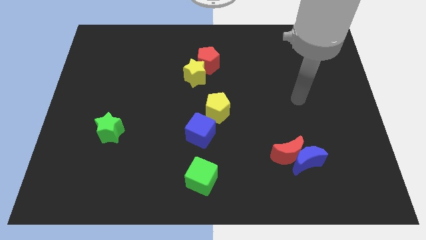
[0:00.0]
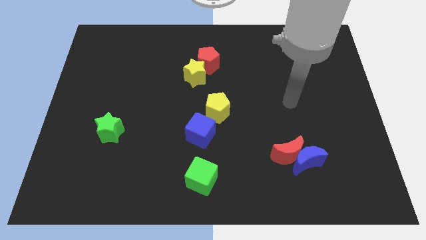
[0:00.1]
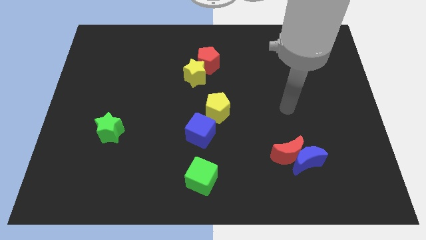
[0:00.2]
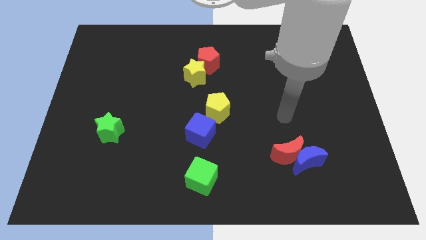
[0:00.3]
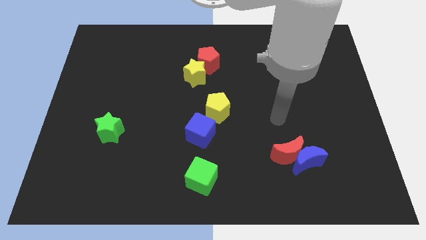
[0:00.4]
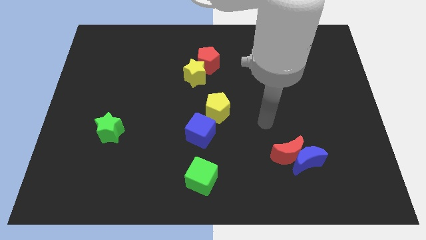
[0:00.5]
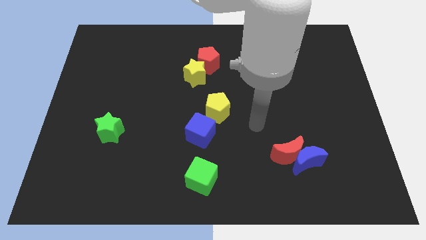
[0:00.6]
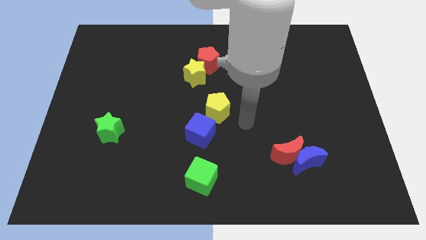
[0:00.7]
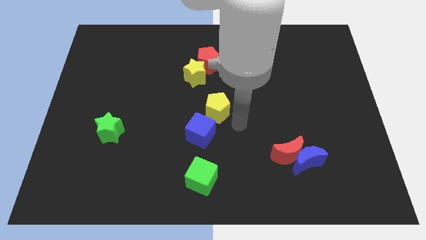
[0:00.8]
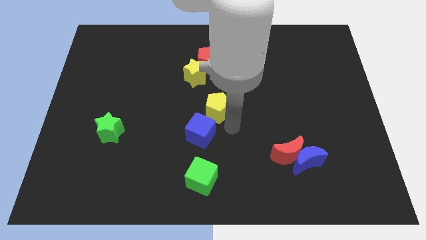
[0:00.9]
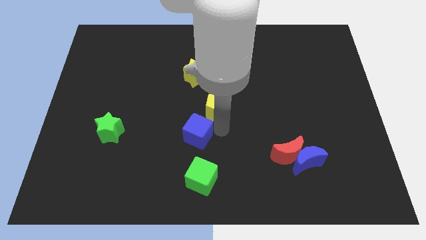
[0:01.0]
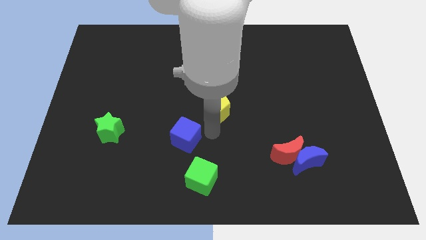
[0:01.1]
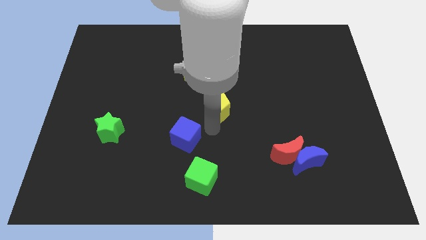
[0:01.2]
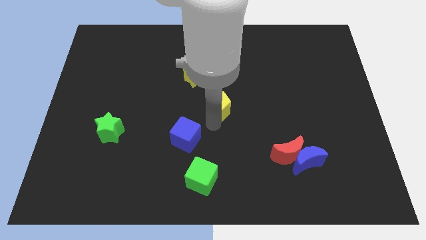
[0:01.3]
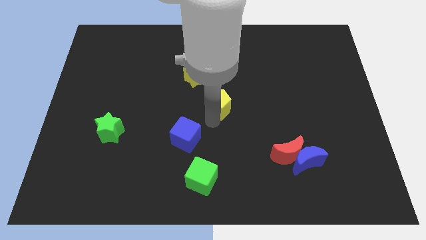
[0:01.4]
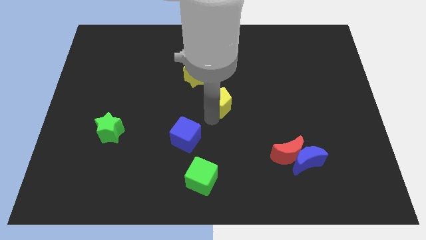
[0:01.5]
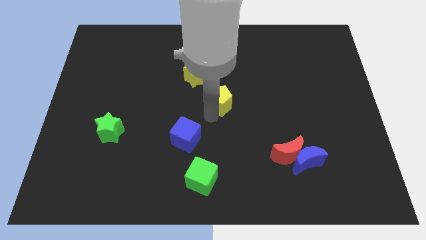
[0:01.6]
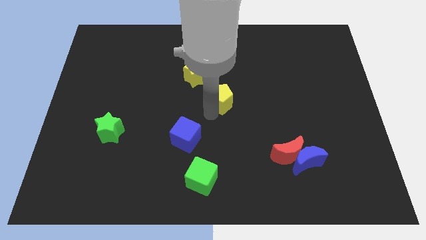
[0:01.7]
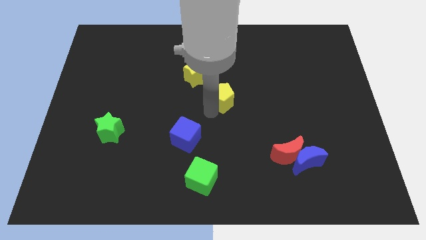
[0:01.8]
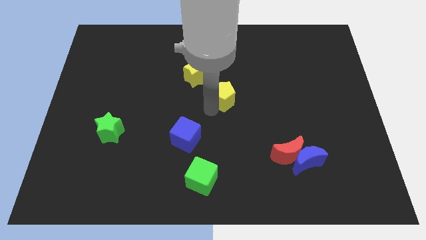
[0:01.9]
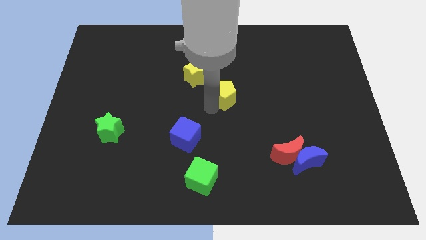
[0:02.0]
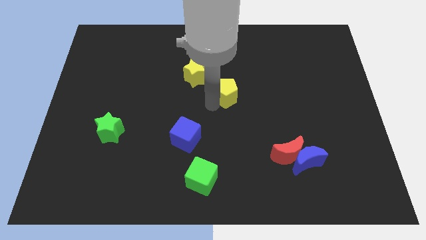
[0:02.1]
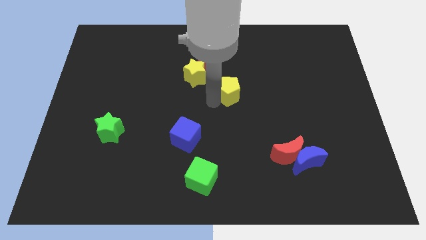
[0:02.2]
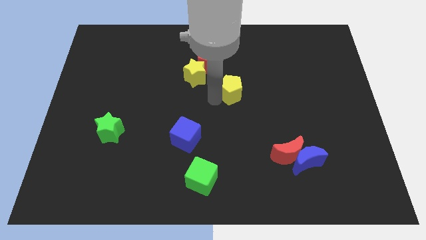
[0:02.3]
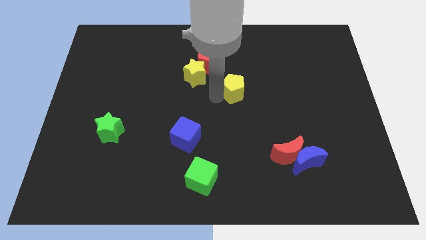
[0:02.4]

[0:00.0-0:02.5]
move the yellow pentagon somewhat upwards and then to the right

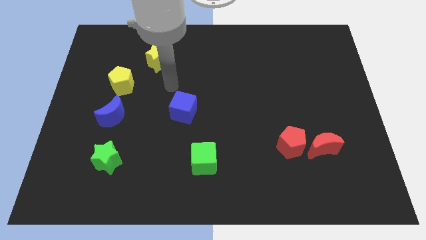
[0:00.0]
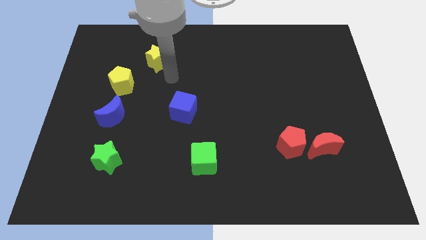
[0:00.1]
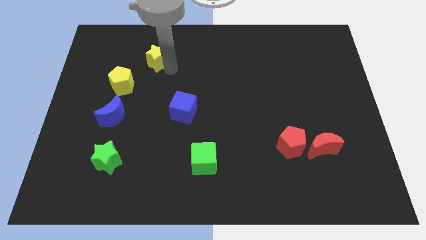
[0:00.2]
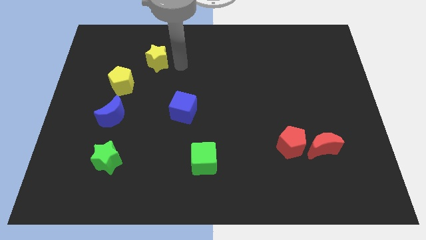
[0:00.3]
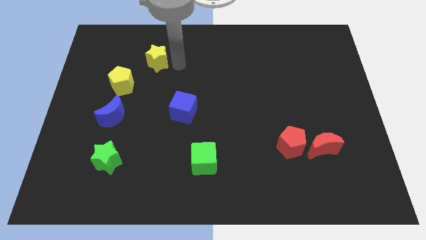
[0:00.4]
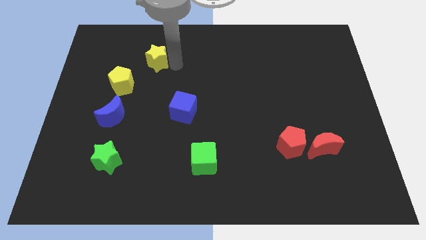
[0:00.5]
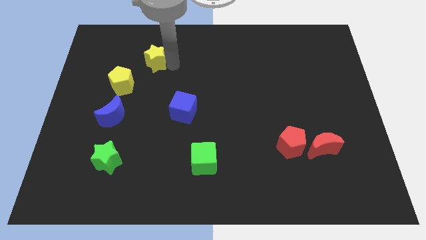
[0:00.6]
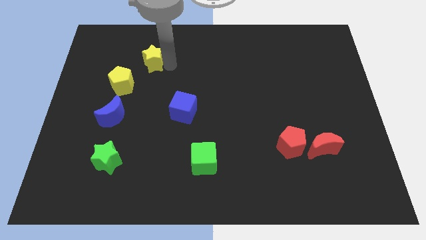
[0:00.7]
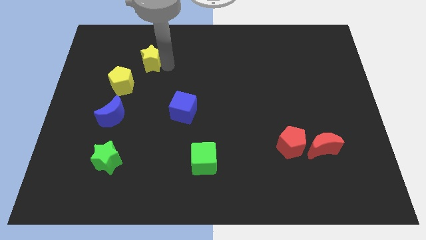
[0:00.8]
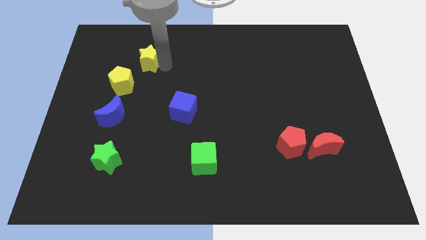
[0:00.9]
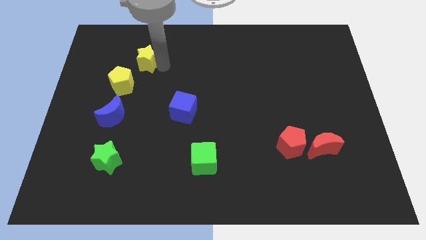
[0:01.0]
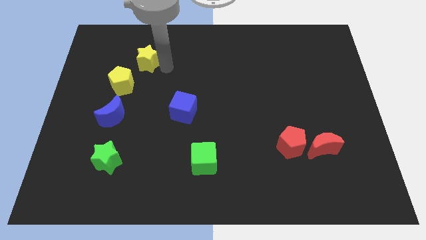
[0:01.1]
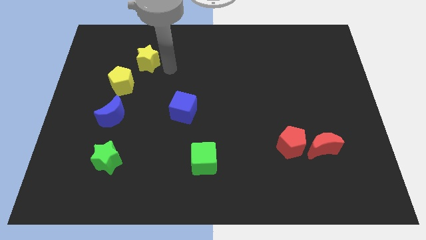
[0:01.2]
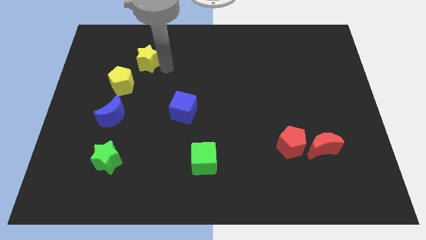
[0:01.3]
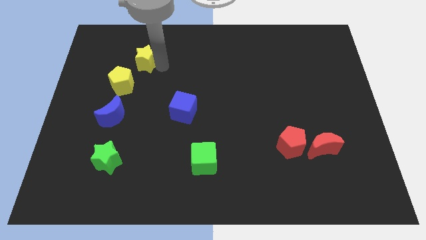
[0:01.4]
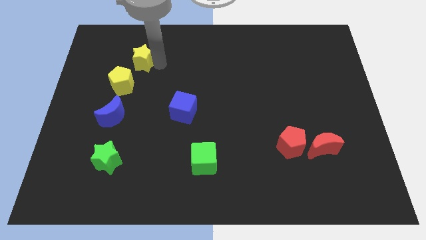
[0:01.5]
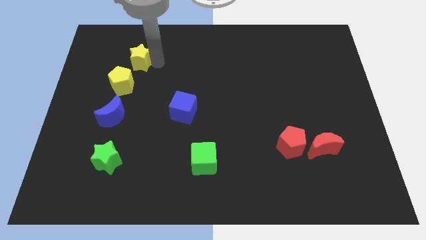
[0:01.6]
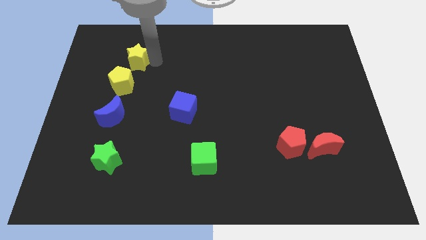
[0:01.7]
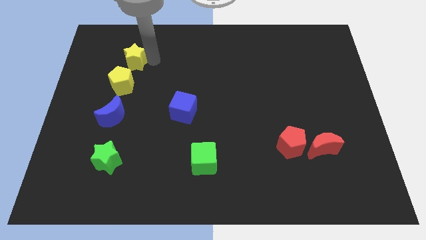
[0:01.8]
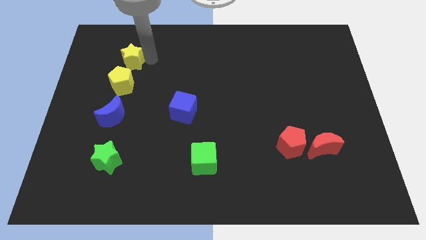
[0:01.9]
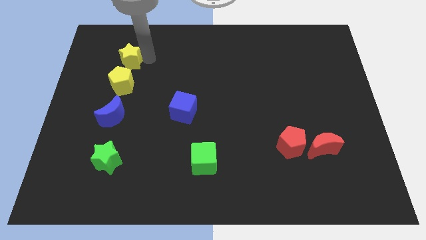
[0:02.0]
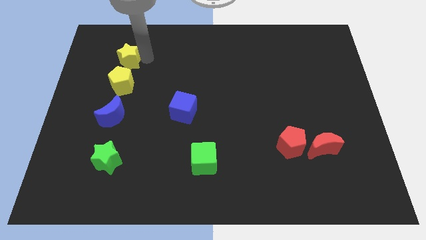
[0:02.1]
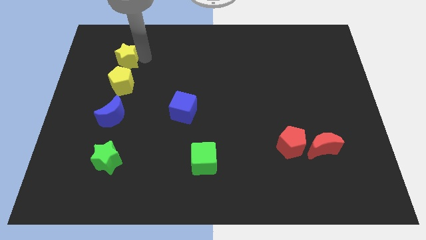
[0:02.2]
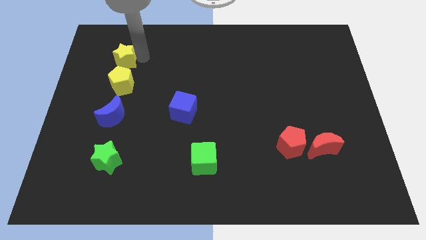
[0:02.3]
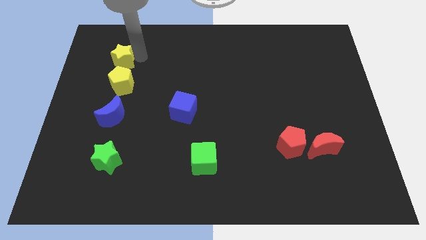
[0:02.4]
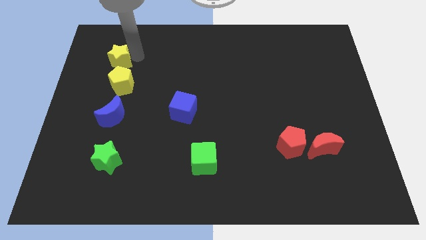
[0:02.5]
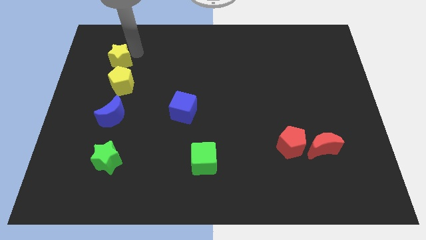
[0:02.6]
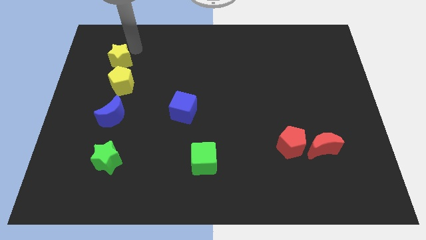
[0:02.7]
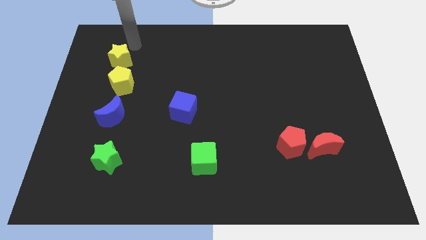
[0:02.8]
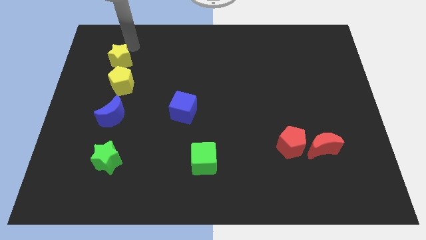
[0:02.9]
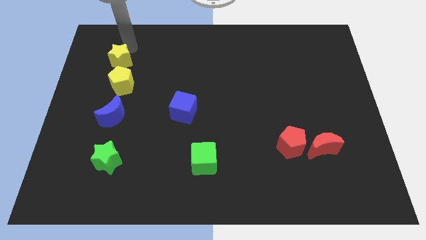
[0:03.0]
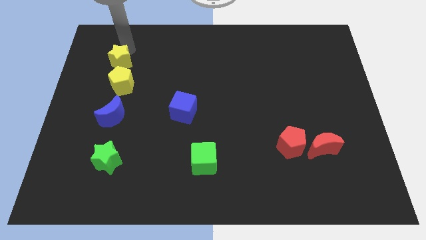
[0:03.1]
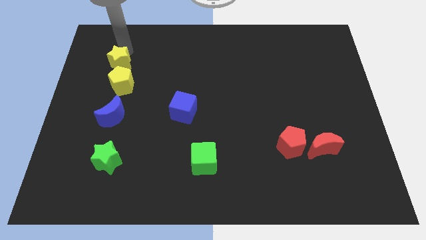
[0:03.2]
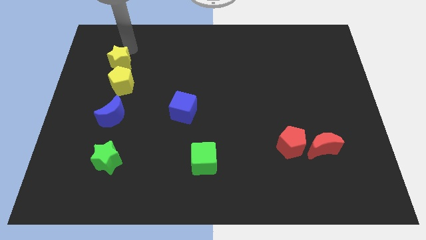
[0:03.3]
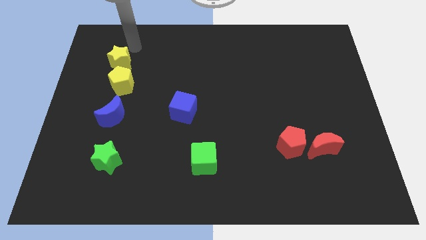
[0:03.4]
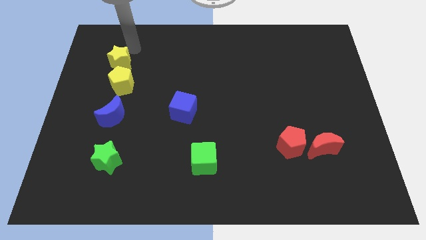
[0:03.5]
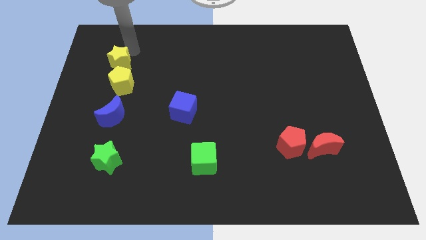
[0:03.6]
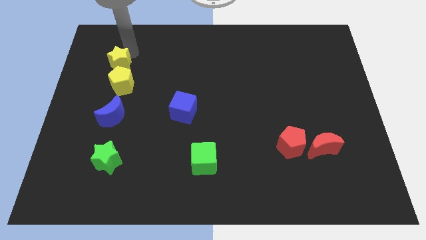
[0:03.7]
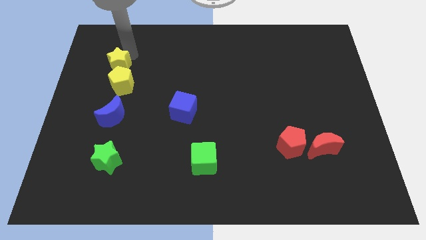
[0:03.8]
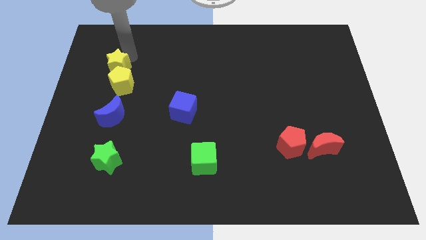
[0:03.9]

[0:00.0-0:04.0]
push the yellow star downwards and left somewhat

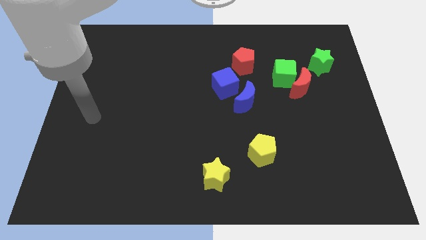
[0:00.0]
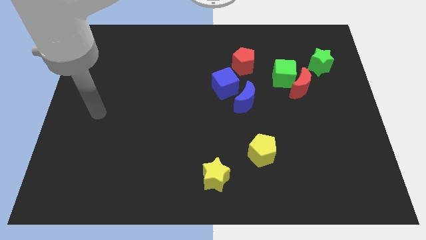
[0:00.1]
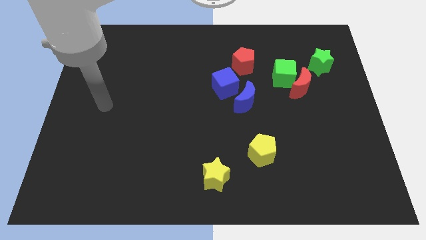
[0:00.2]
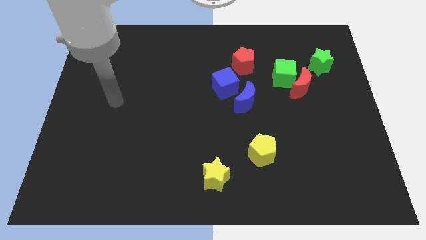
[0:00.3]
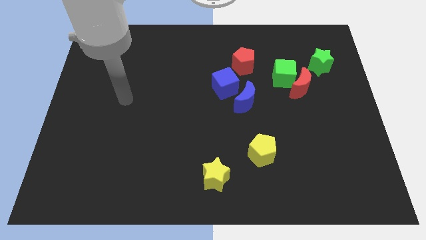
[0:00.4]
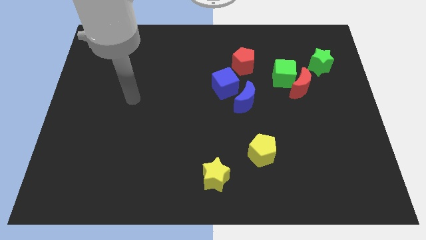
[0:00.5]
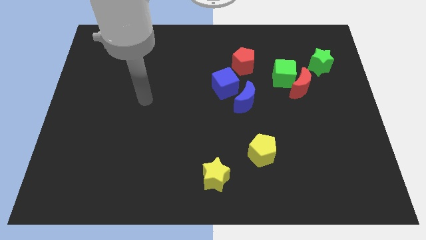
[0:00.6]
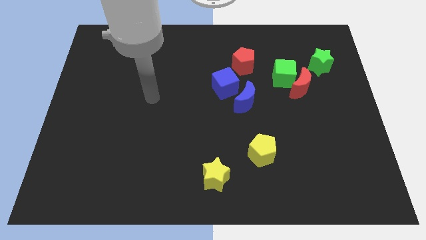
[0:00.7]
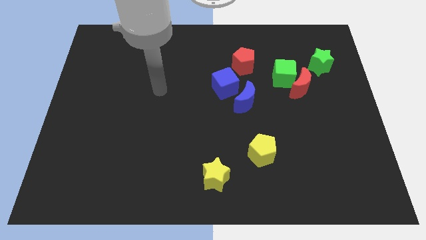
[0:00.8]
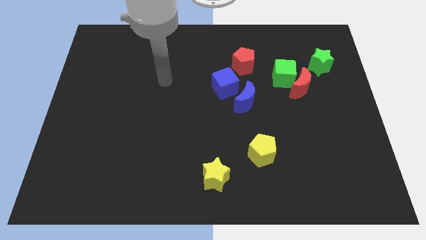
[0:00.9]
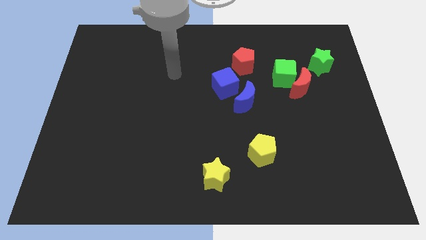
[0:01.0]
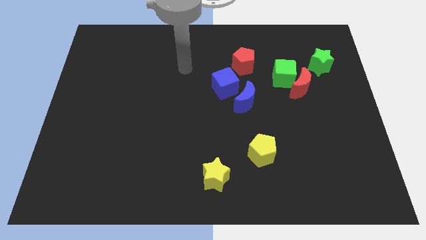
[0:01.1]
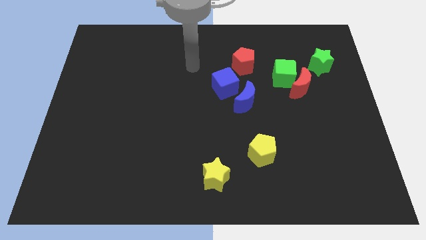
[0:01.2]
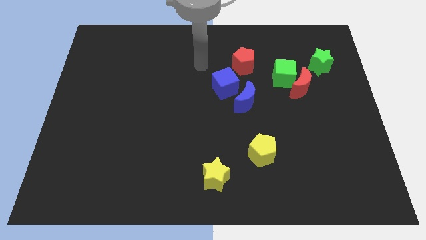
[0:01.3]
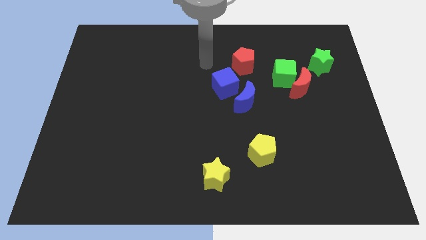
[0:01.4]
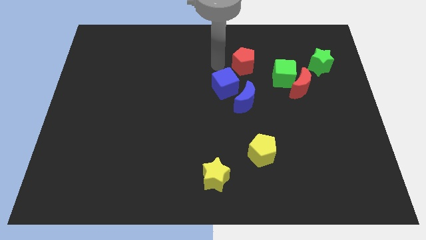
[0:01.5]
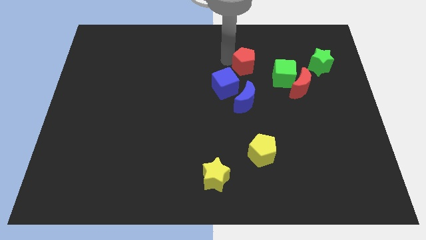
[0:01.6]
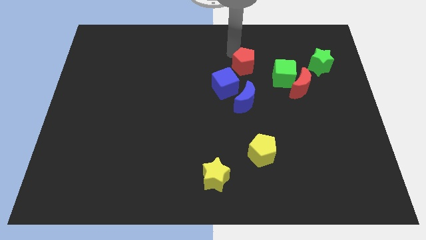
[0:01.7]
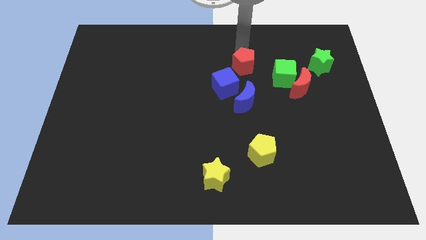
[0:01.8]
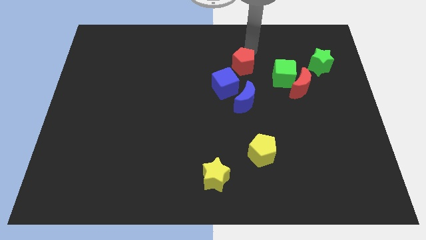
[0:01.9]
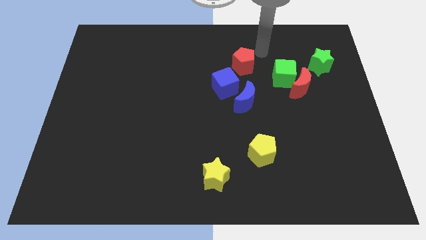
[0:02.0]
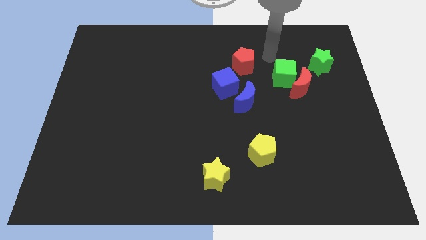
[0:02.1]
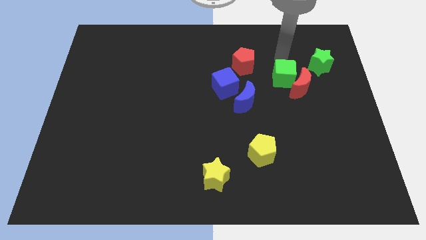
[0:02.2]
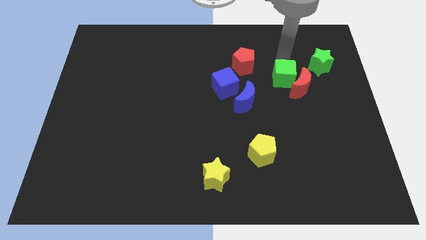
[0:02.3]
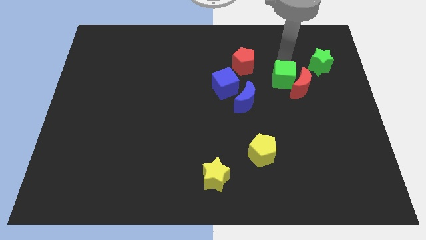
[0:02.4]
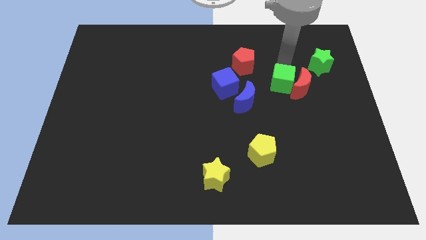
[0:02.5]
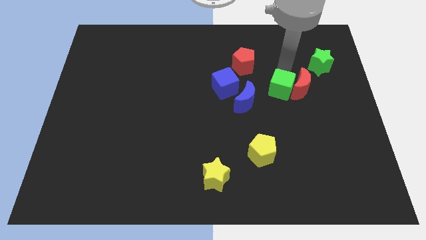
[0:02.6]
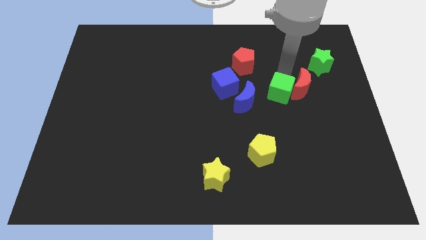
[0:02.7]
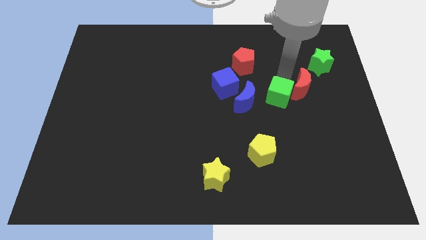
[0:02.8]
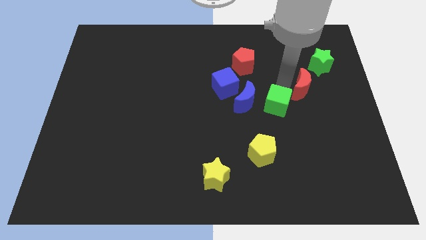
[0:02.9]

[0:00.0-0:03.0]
move the green cube slightly diagonally downwards and to the left
